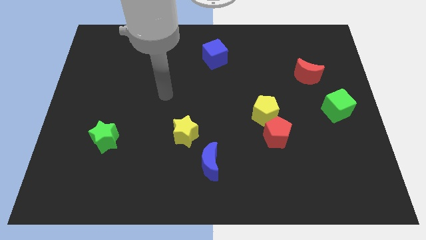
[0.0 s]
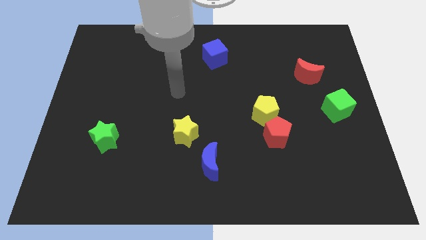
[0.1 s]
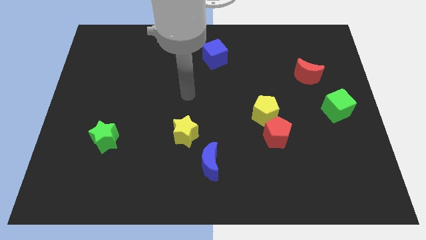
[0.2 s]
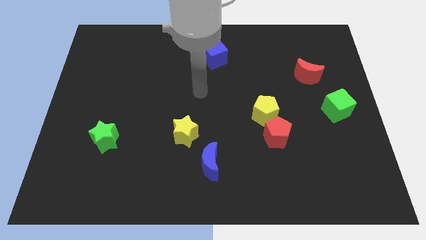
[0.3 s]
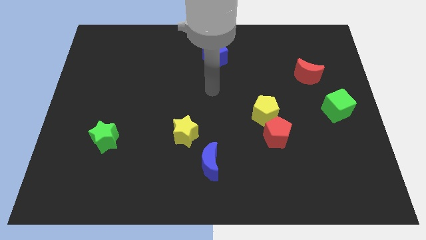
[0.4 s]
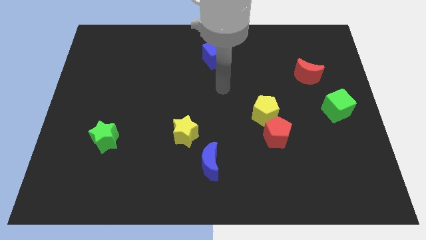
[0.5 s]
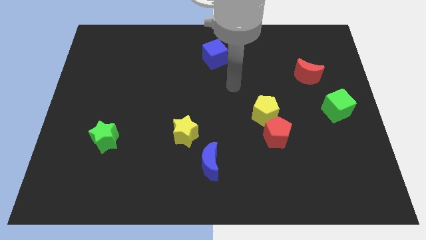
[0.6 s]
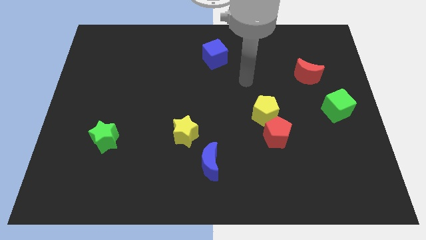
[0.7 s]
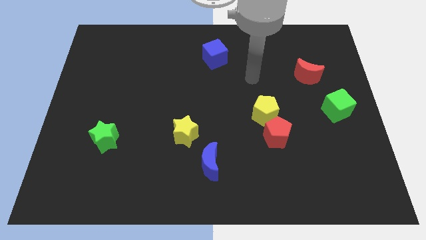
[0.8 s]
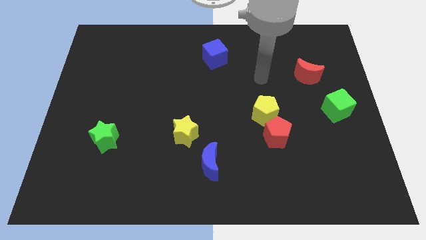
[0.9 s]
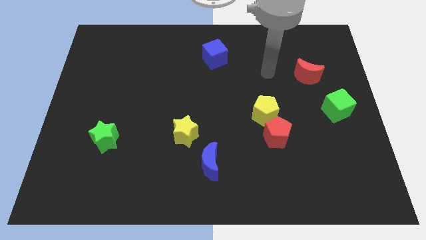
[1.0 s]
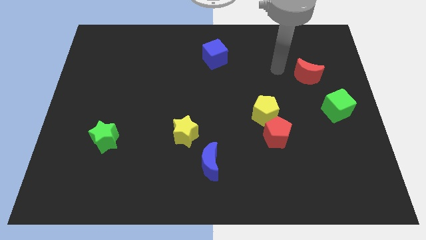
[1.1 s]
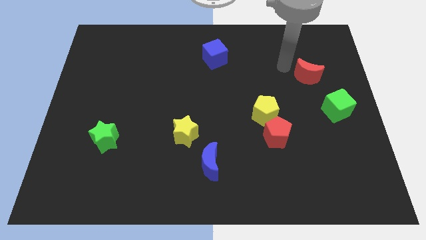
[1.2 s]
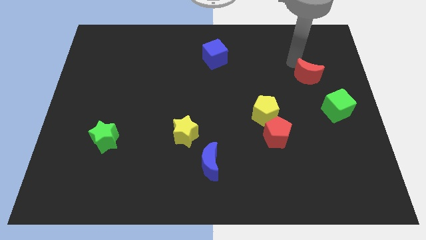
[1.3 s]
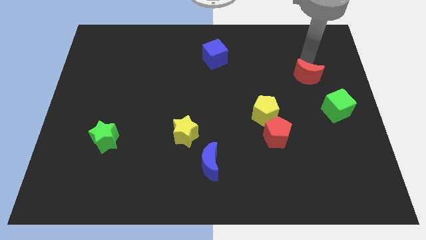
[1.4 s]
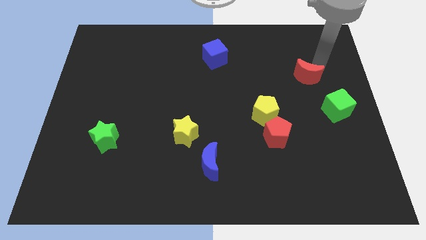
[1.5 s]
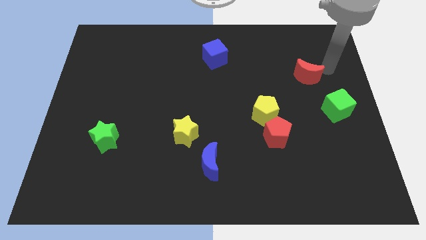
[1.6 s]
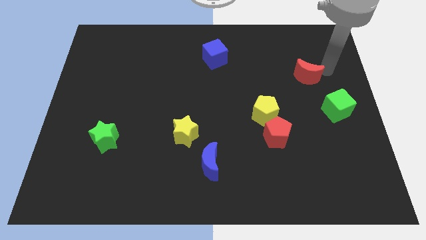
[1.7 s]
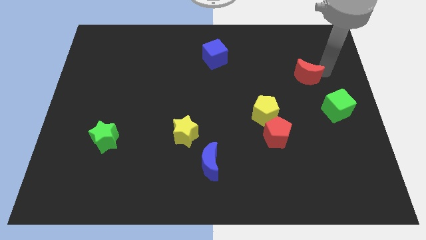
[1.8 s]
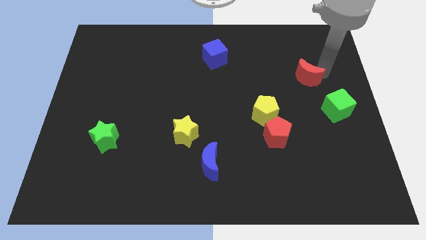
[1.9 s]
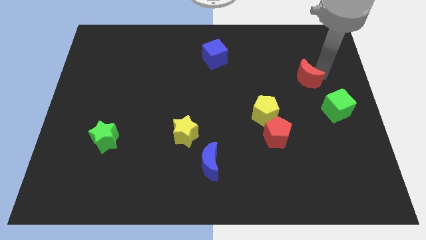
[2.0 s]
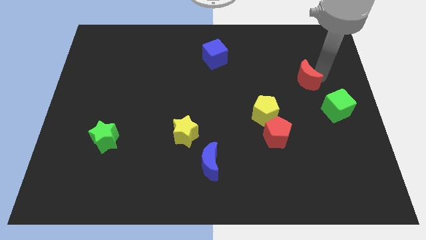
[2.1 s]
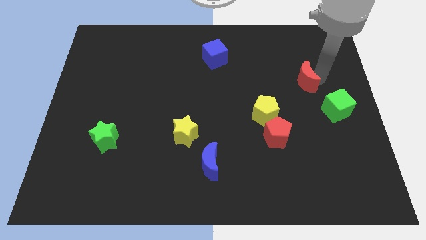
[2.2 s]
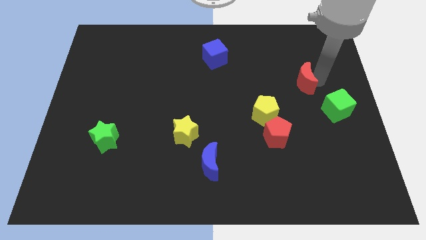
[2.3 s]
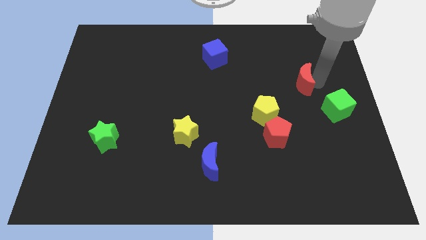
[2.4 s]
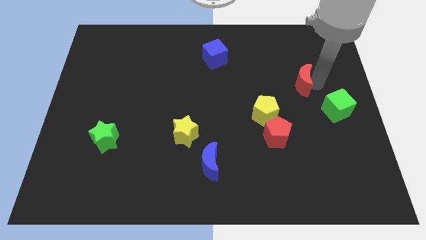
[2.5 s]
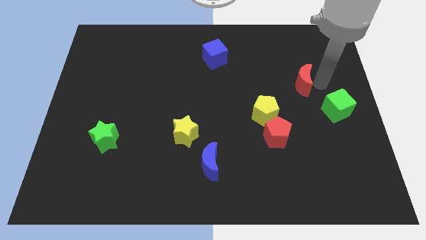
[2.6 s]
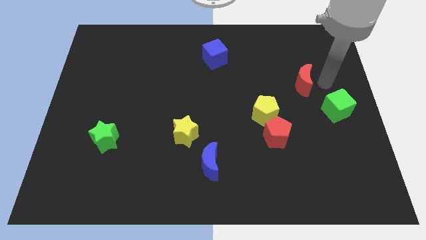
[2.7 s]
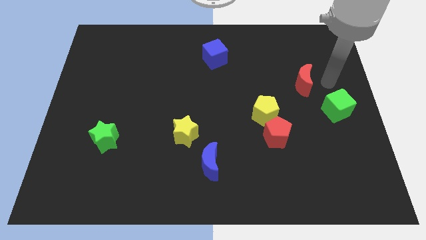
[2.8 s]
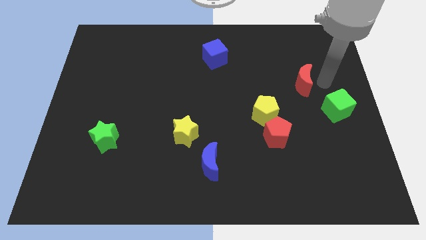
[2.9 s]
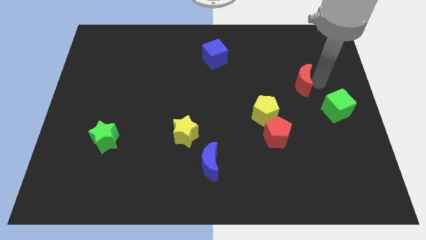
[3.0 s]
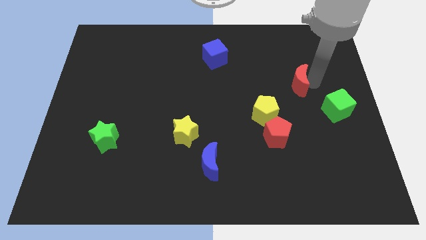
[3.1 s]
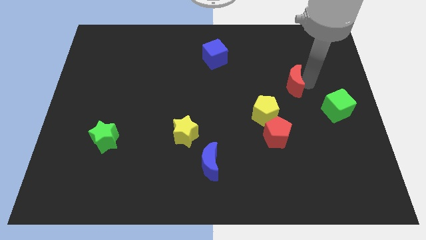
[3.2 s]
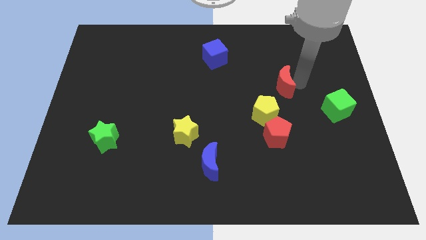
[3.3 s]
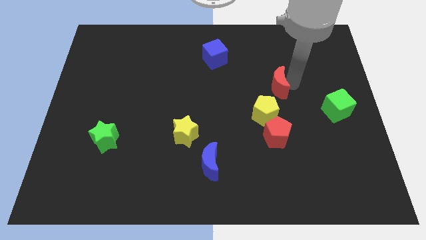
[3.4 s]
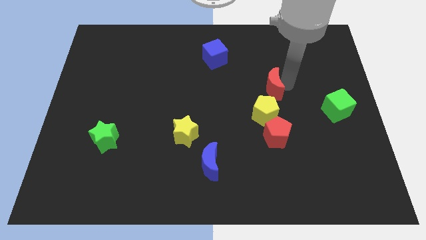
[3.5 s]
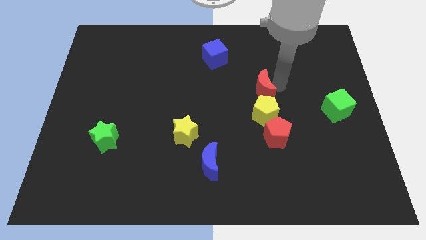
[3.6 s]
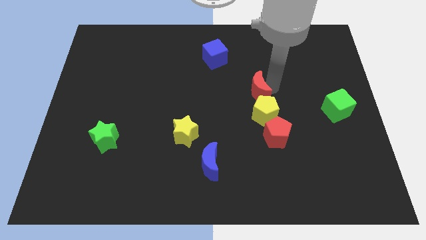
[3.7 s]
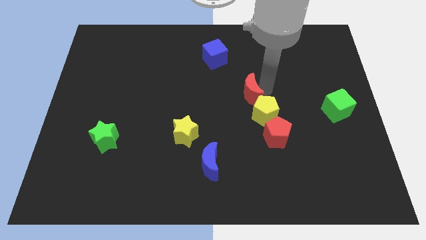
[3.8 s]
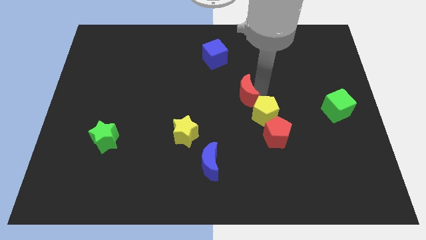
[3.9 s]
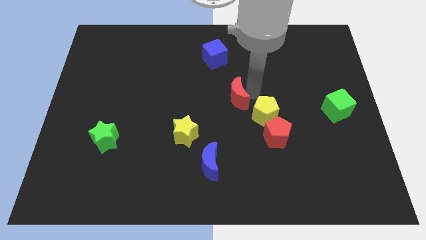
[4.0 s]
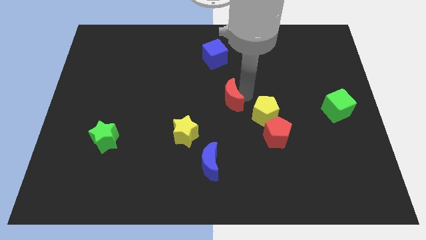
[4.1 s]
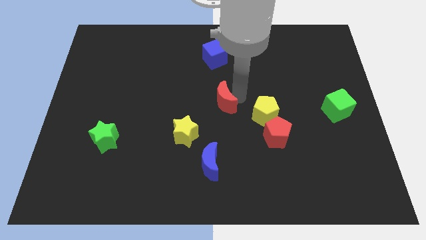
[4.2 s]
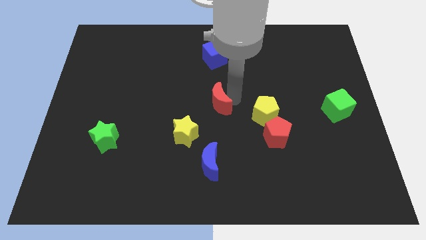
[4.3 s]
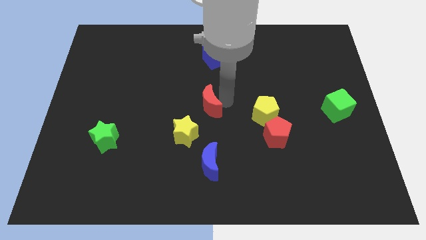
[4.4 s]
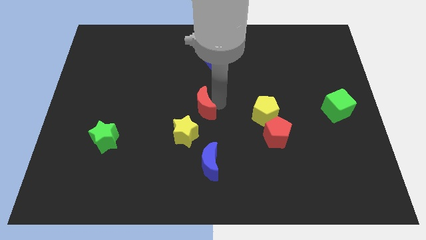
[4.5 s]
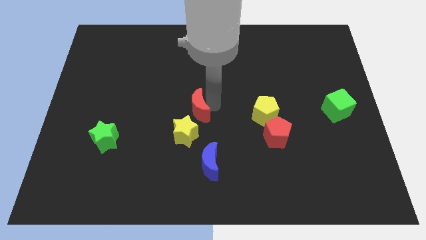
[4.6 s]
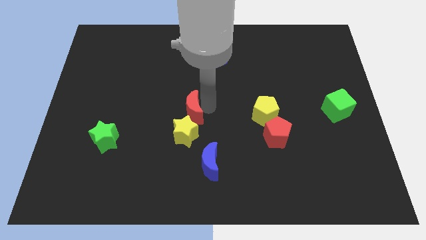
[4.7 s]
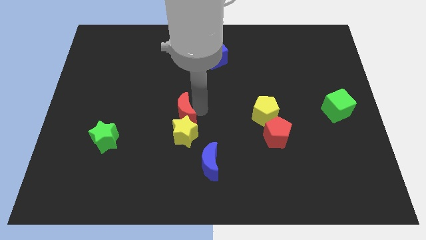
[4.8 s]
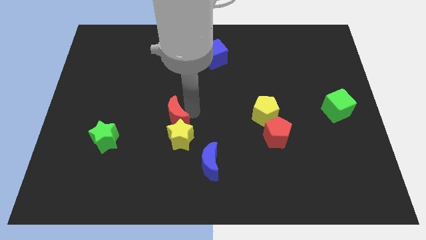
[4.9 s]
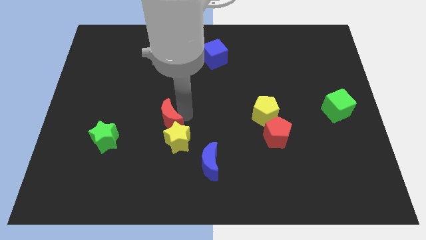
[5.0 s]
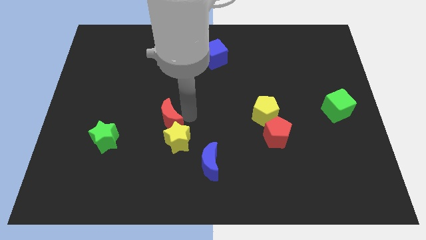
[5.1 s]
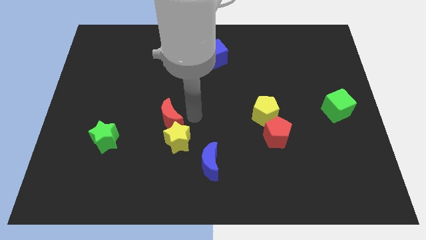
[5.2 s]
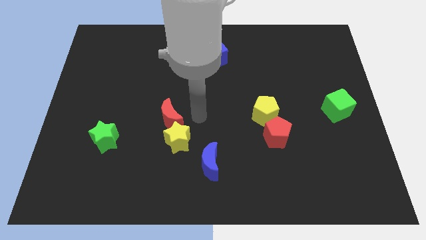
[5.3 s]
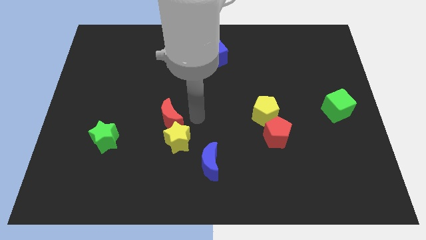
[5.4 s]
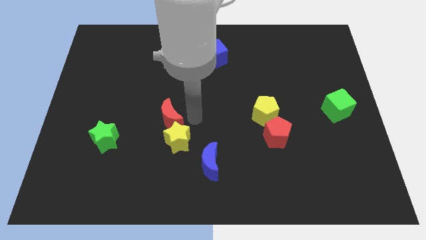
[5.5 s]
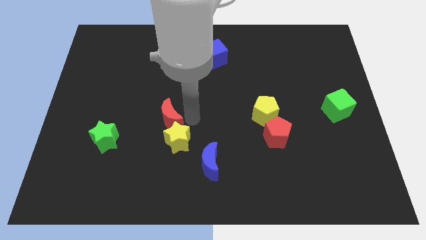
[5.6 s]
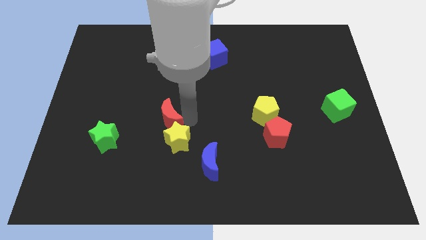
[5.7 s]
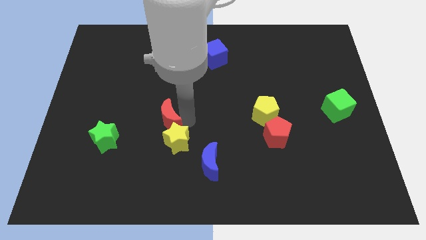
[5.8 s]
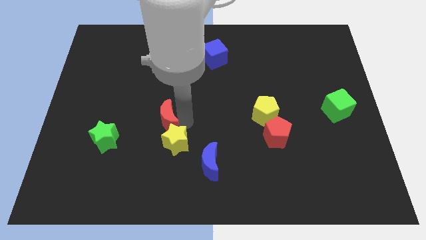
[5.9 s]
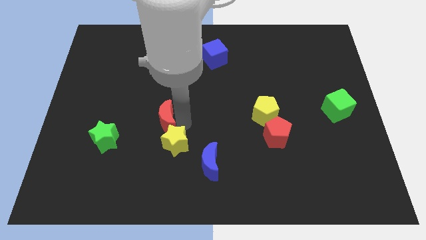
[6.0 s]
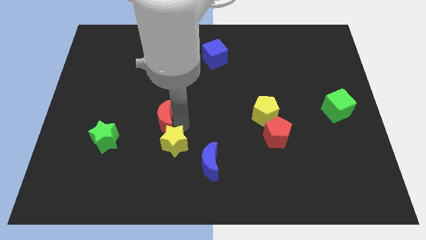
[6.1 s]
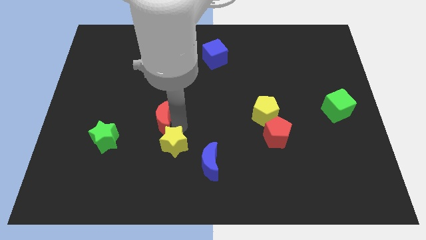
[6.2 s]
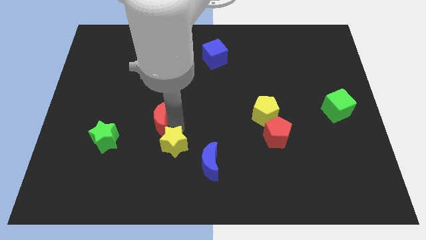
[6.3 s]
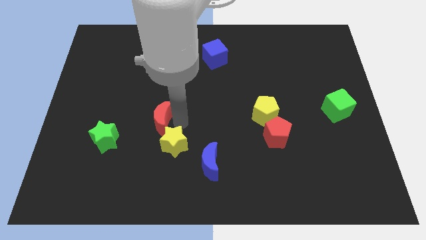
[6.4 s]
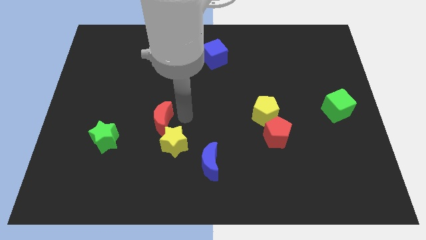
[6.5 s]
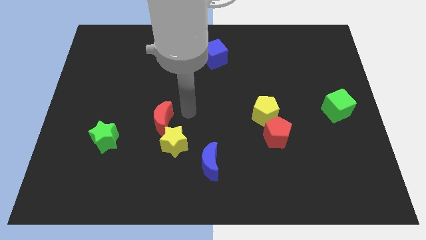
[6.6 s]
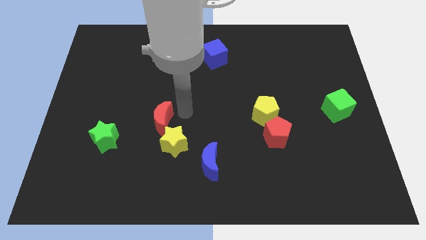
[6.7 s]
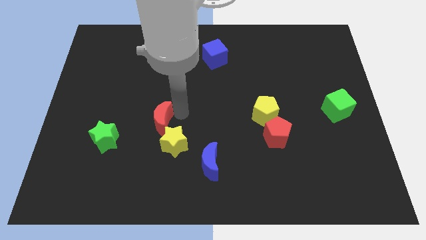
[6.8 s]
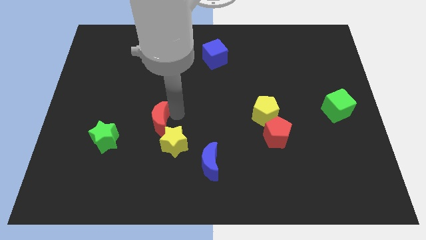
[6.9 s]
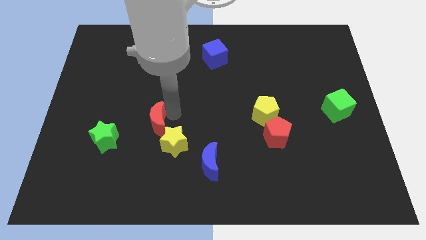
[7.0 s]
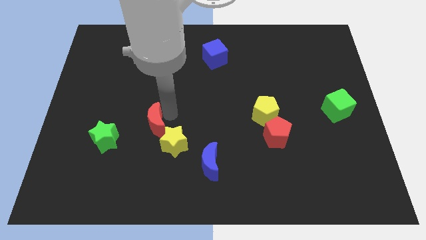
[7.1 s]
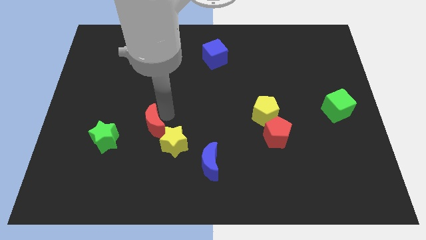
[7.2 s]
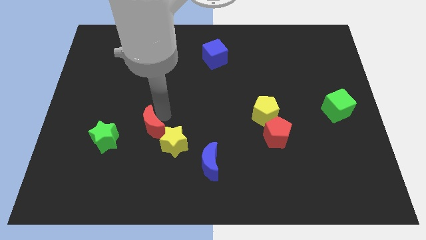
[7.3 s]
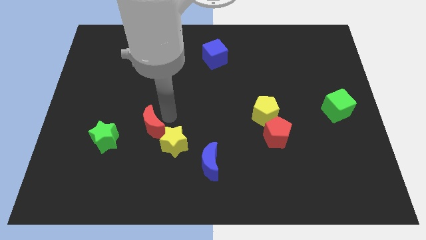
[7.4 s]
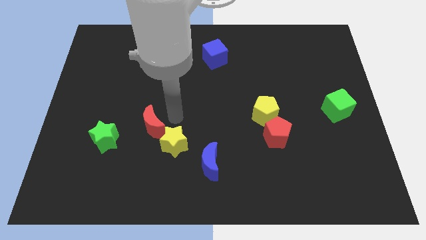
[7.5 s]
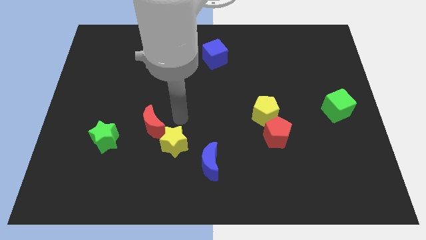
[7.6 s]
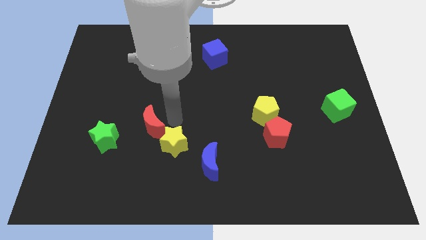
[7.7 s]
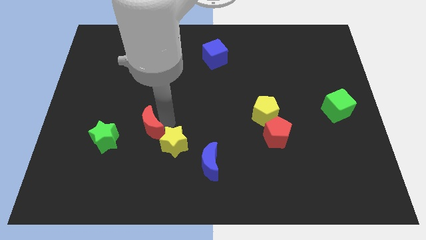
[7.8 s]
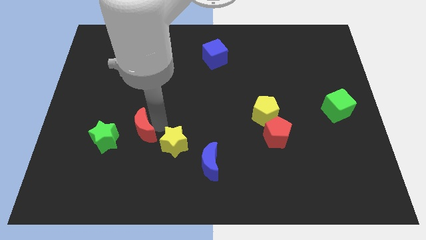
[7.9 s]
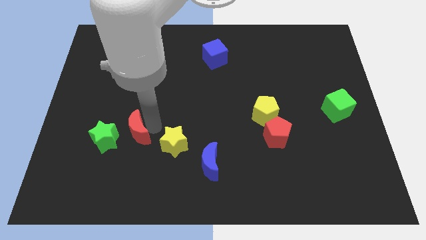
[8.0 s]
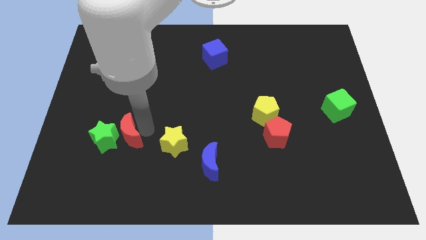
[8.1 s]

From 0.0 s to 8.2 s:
move the red moon next to the green star
